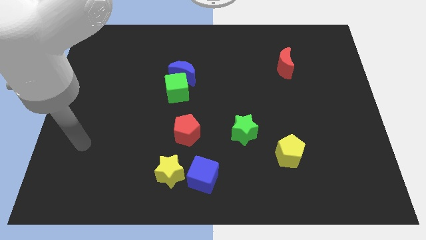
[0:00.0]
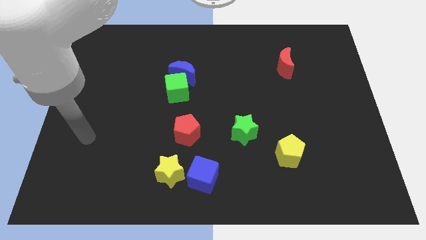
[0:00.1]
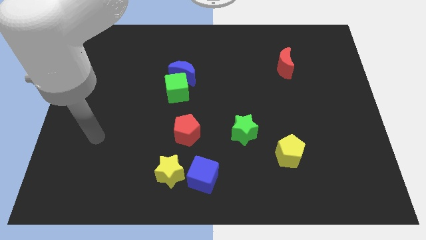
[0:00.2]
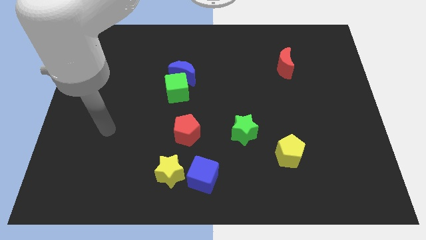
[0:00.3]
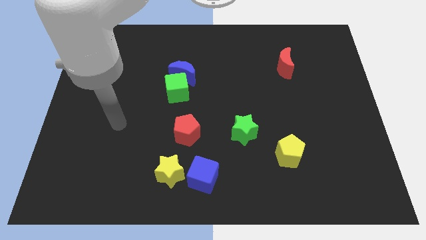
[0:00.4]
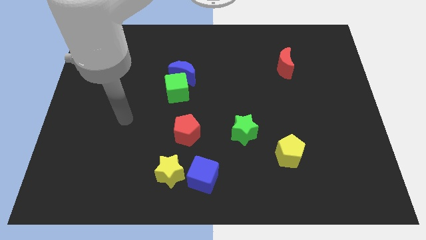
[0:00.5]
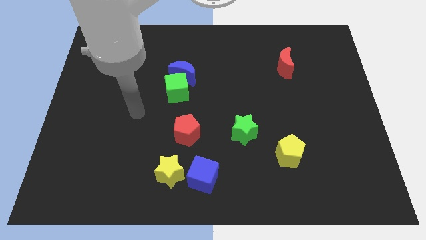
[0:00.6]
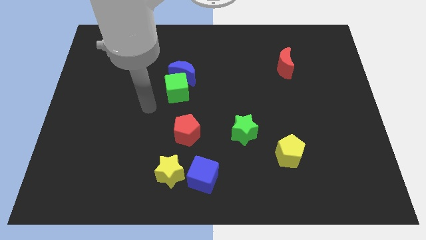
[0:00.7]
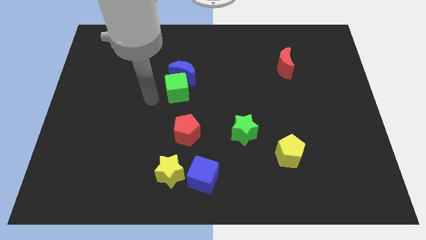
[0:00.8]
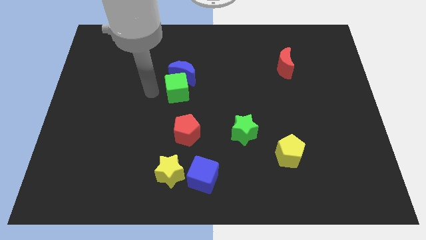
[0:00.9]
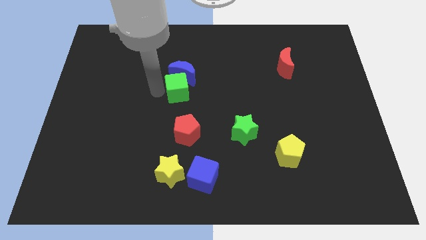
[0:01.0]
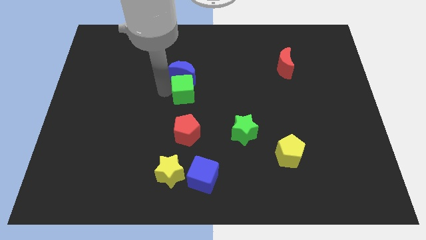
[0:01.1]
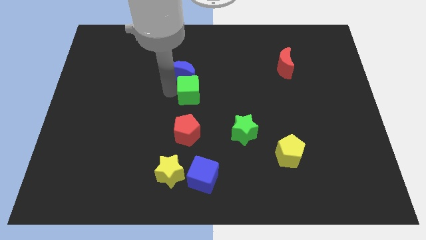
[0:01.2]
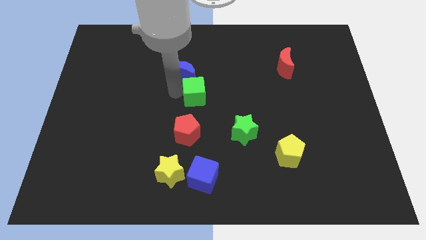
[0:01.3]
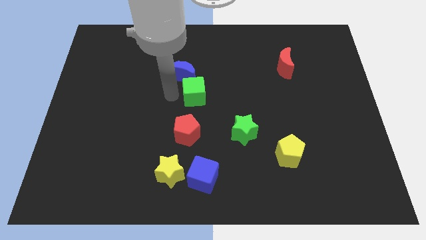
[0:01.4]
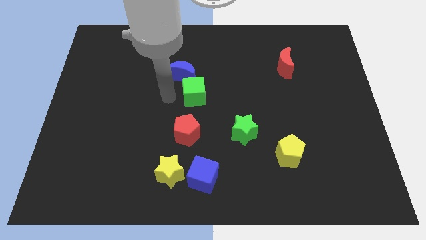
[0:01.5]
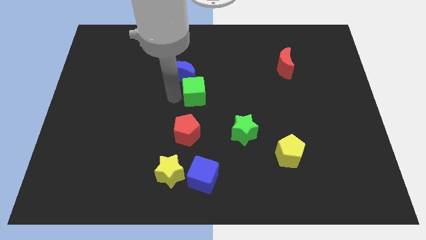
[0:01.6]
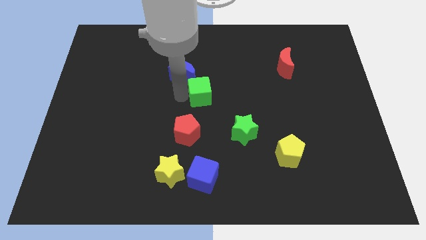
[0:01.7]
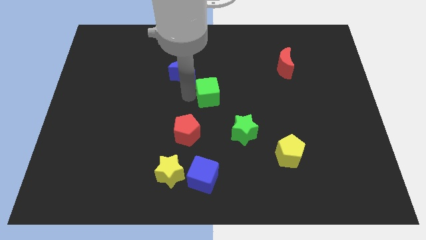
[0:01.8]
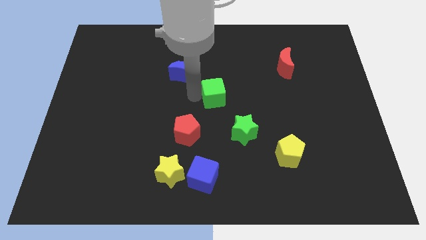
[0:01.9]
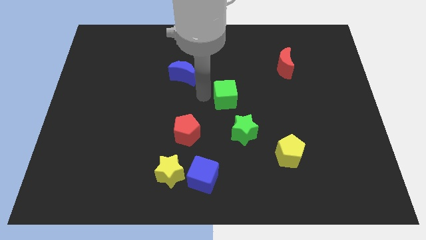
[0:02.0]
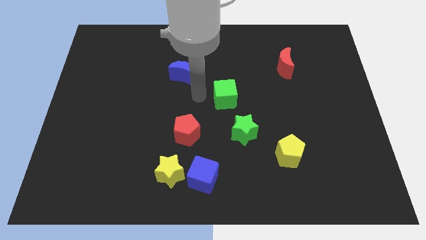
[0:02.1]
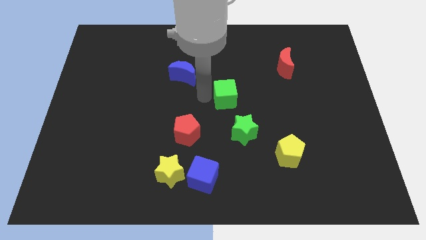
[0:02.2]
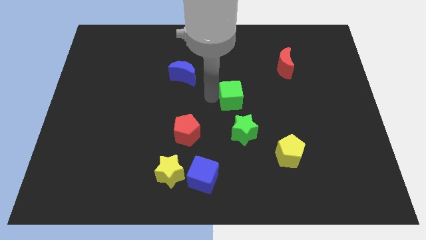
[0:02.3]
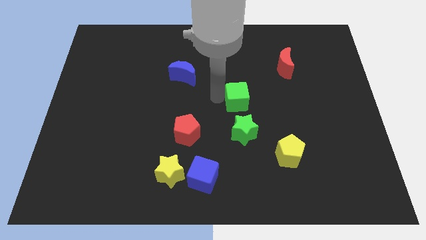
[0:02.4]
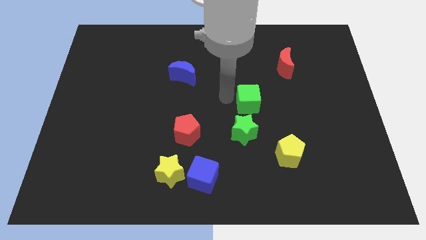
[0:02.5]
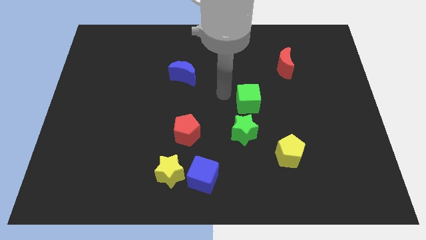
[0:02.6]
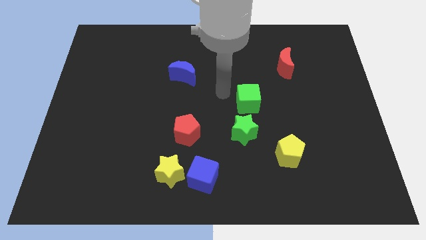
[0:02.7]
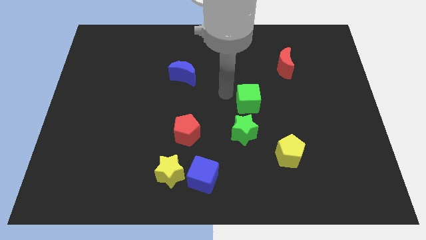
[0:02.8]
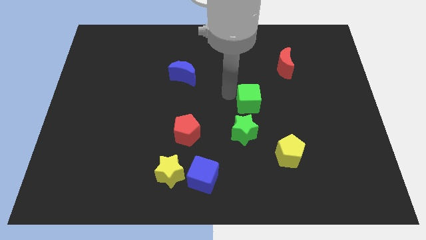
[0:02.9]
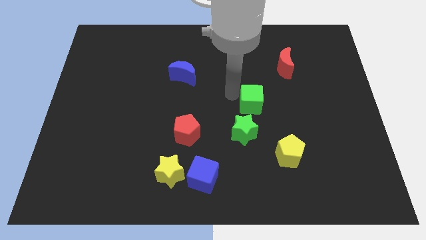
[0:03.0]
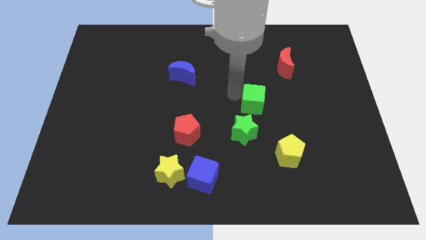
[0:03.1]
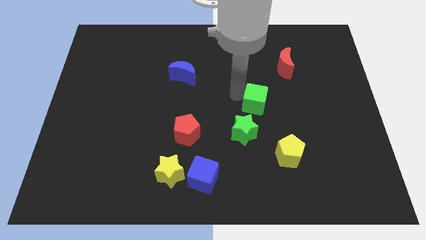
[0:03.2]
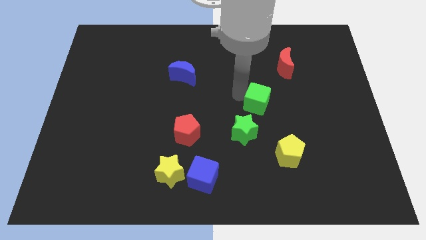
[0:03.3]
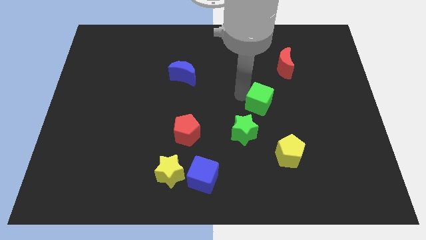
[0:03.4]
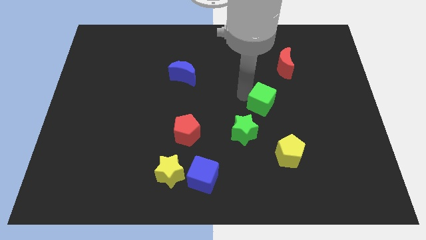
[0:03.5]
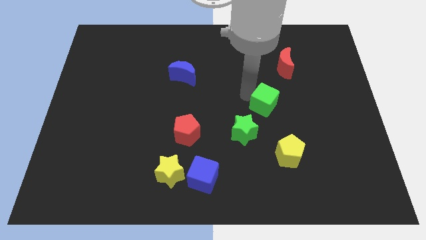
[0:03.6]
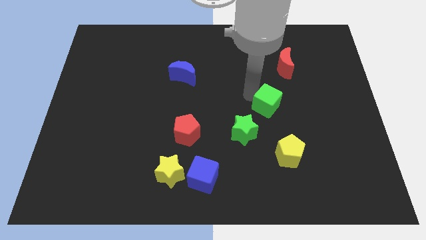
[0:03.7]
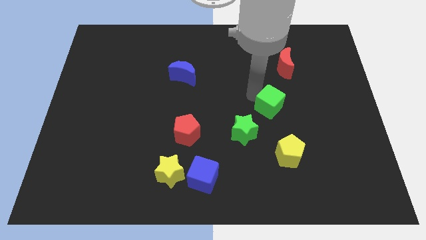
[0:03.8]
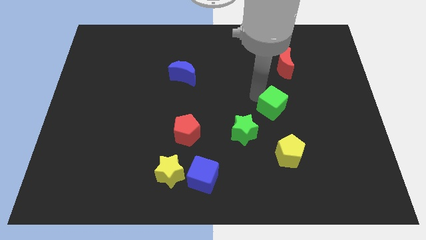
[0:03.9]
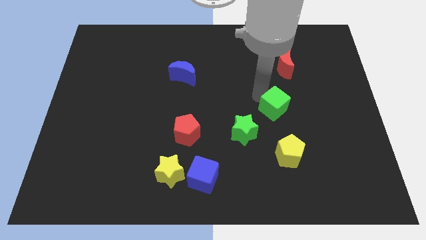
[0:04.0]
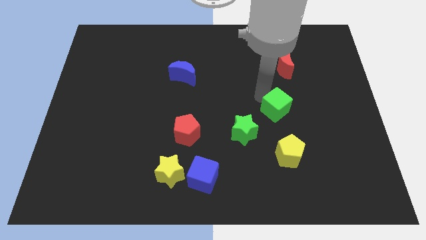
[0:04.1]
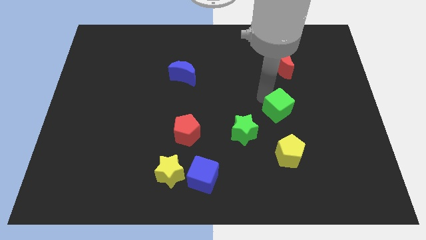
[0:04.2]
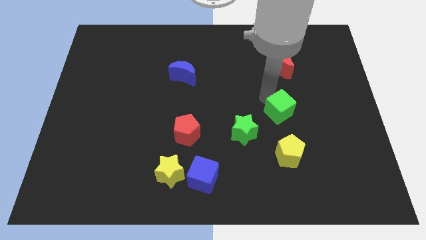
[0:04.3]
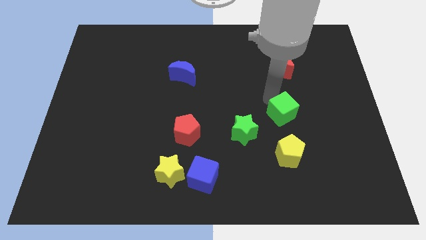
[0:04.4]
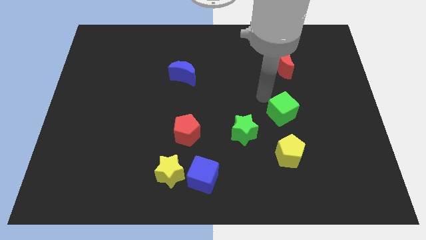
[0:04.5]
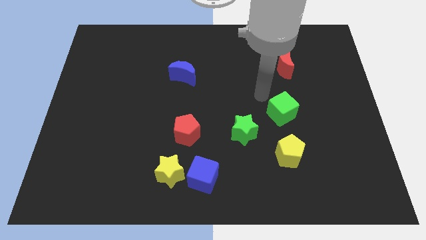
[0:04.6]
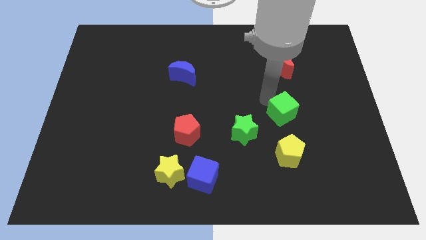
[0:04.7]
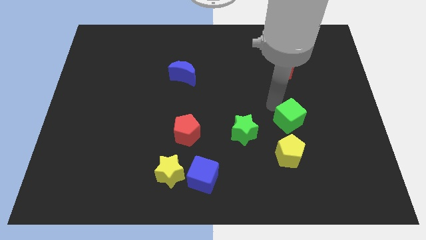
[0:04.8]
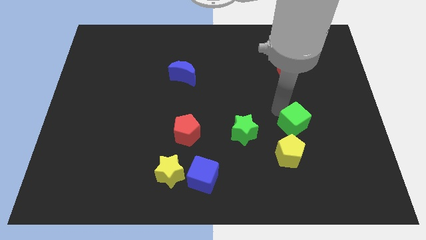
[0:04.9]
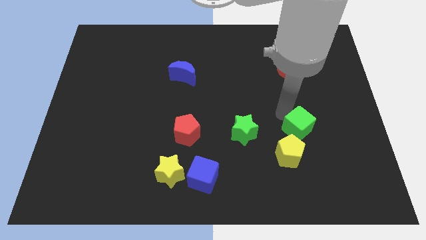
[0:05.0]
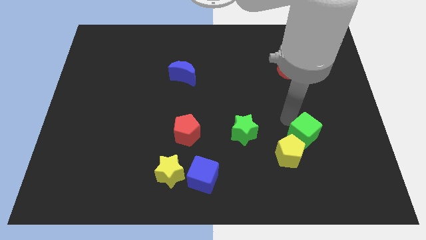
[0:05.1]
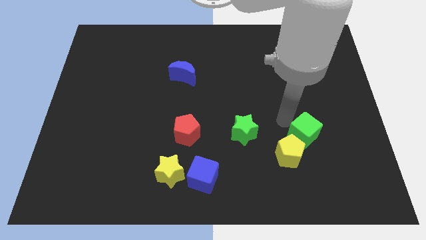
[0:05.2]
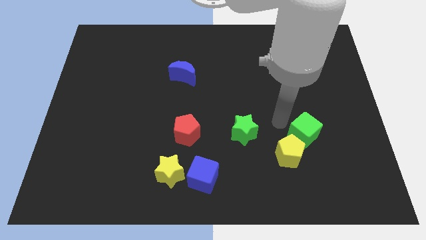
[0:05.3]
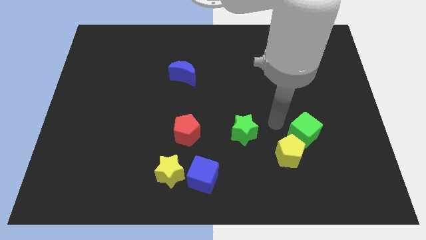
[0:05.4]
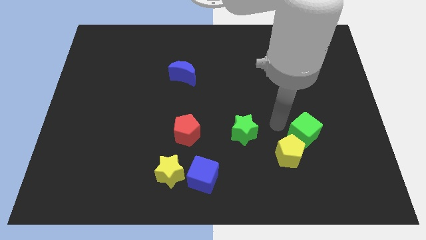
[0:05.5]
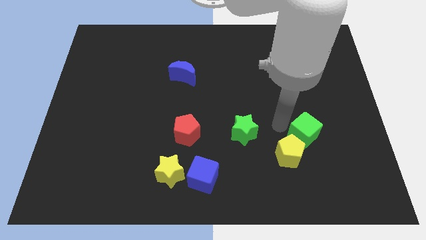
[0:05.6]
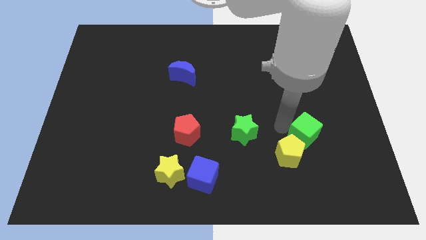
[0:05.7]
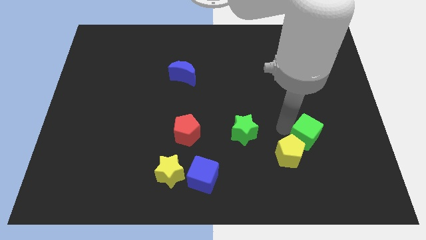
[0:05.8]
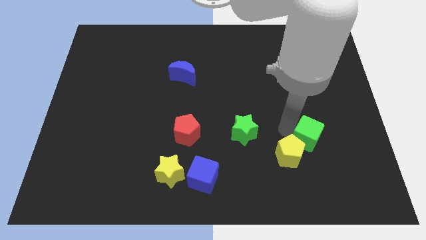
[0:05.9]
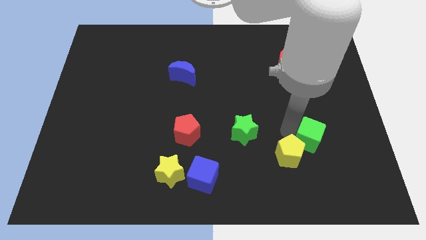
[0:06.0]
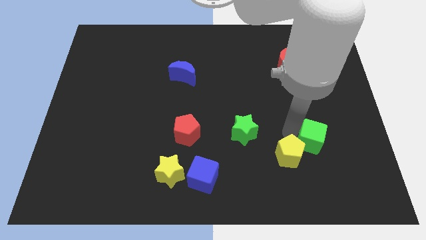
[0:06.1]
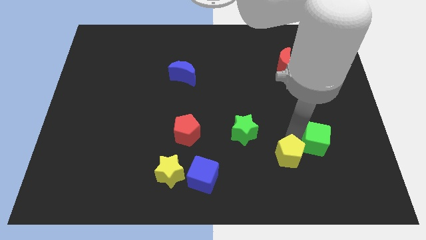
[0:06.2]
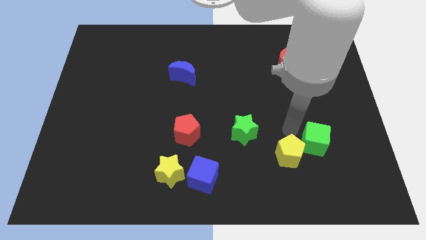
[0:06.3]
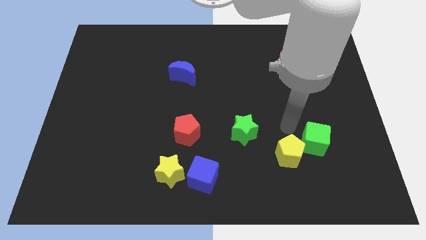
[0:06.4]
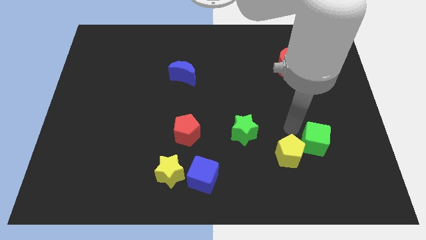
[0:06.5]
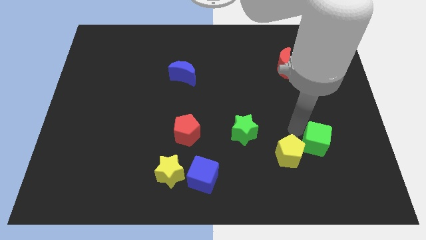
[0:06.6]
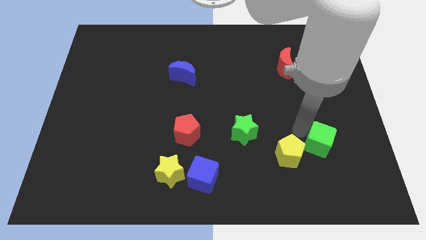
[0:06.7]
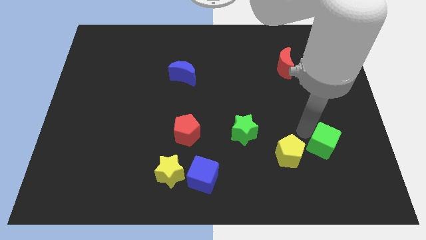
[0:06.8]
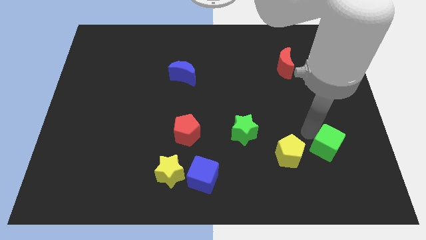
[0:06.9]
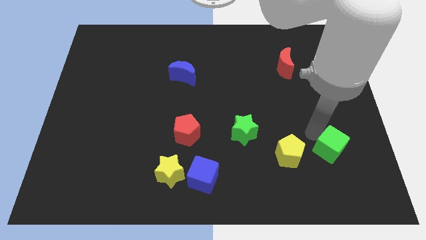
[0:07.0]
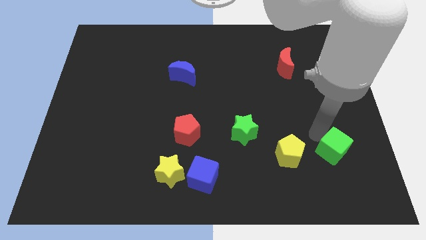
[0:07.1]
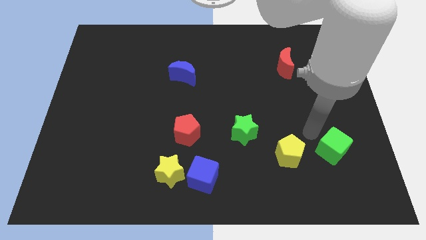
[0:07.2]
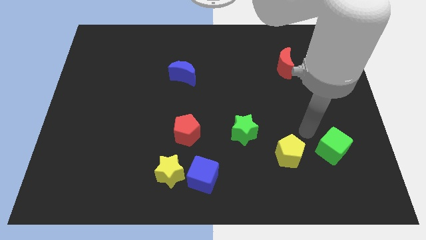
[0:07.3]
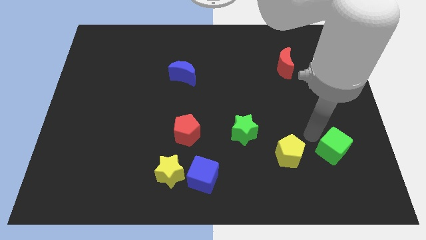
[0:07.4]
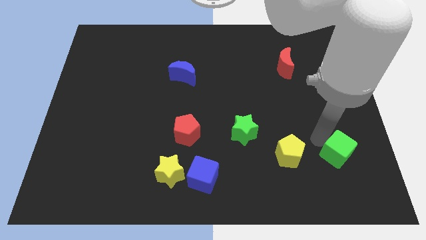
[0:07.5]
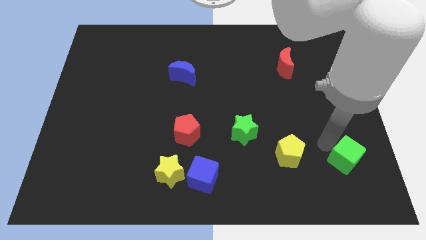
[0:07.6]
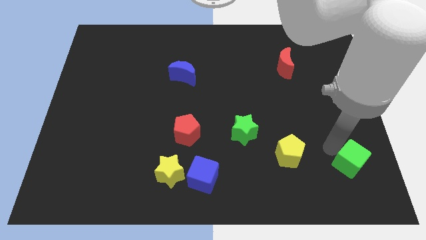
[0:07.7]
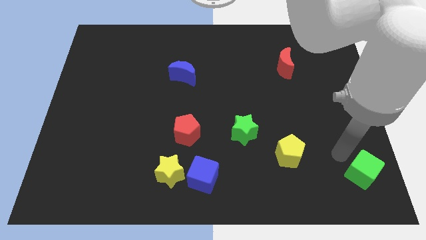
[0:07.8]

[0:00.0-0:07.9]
slide the green cube to the bottom right corner
